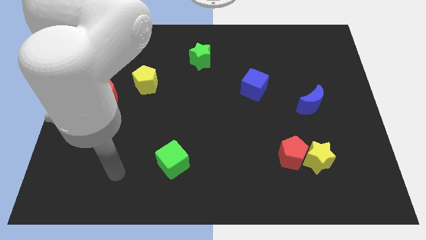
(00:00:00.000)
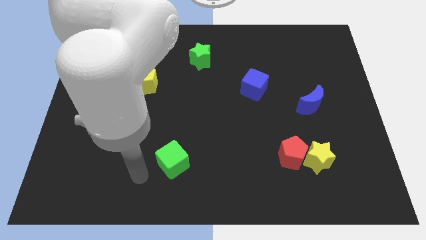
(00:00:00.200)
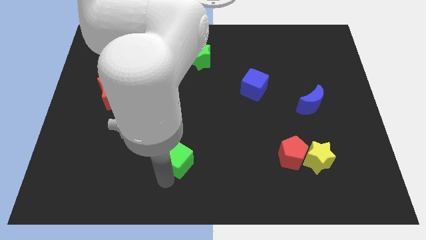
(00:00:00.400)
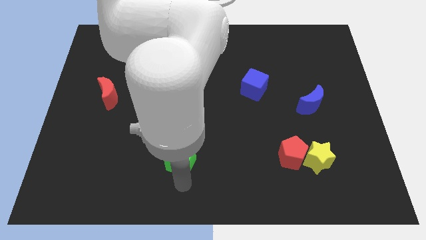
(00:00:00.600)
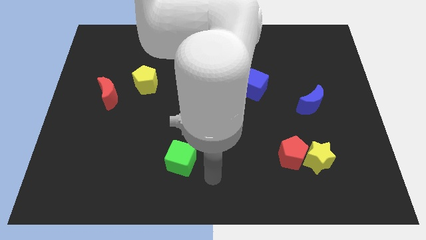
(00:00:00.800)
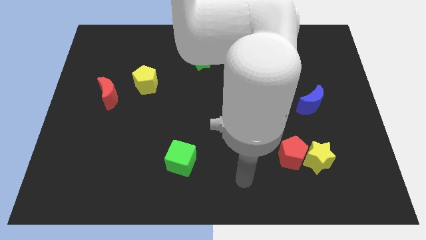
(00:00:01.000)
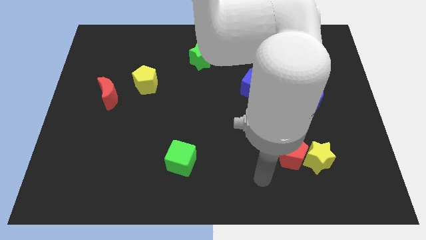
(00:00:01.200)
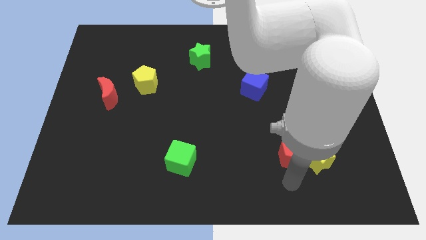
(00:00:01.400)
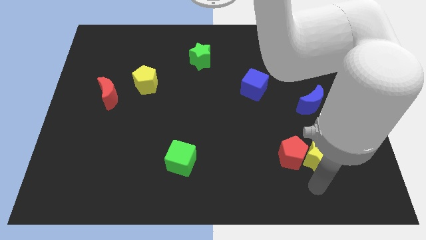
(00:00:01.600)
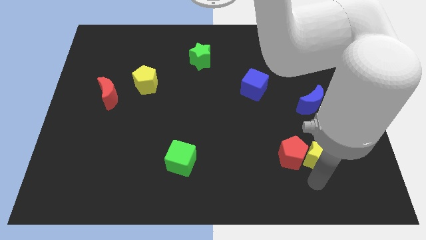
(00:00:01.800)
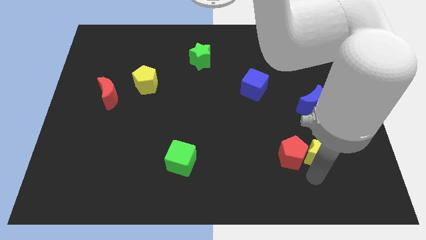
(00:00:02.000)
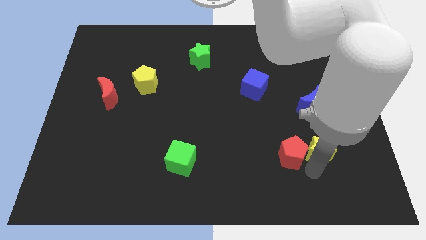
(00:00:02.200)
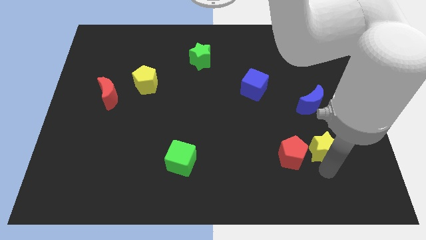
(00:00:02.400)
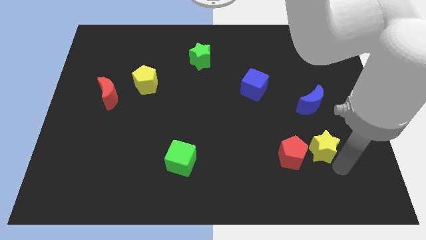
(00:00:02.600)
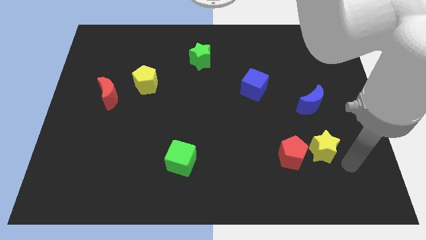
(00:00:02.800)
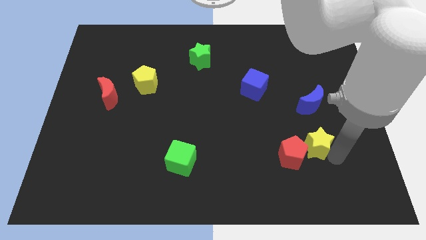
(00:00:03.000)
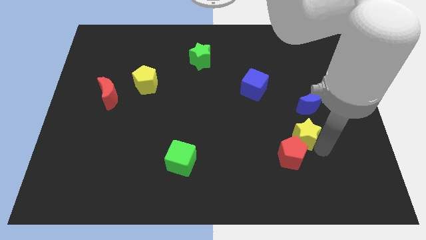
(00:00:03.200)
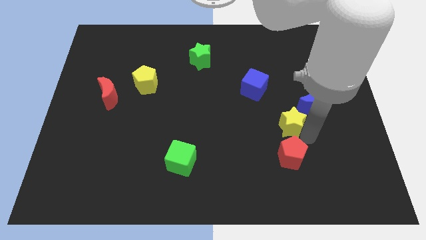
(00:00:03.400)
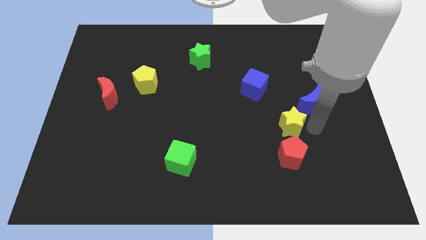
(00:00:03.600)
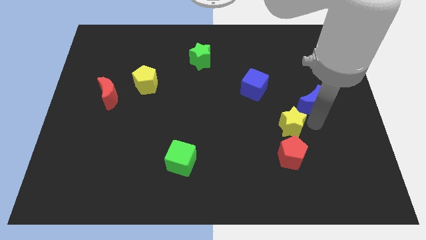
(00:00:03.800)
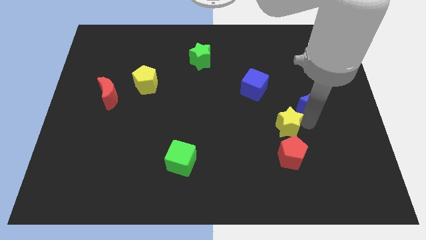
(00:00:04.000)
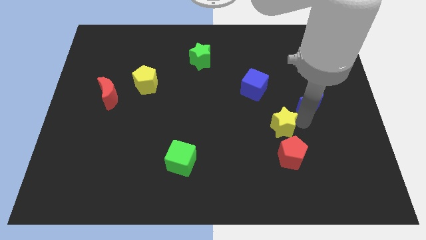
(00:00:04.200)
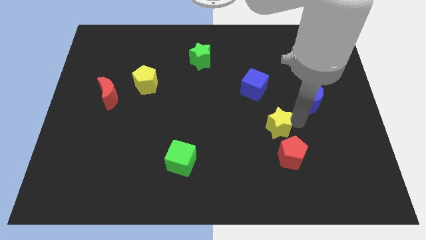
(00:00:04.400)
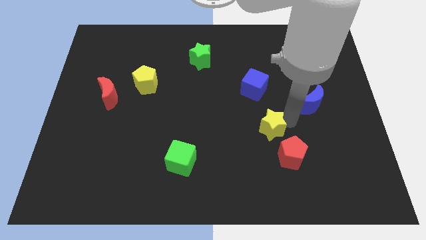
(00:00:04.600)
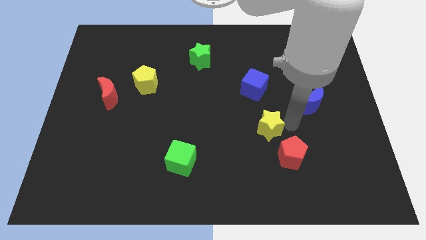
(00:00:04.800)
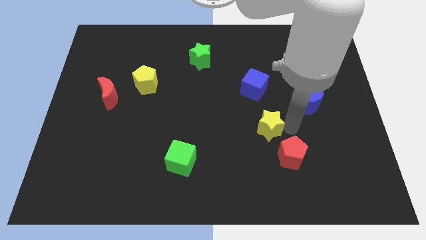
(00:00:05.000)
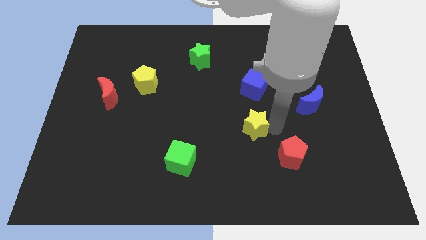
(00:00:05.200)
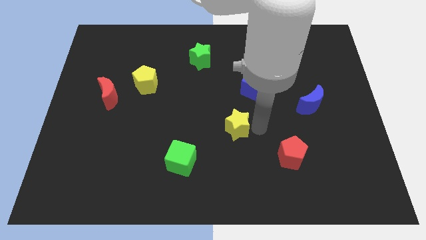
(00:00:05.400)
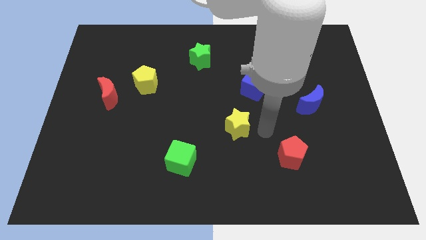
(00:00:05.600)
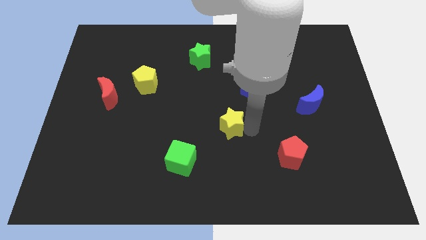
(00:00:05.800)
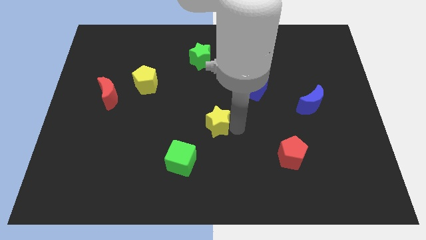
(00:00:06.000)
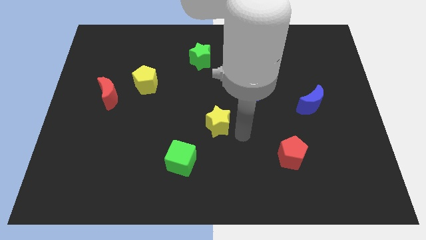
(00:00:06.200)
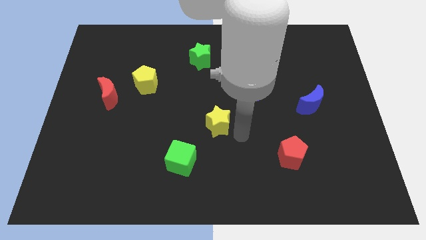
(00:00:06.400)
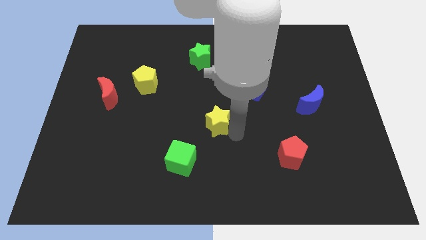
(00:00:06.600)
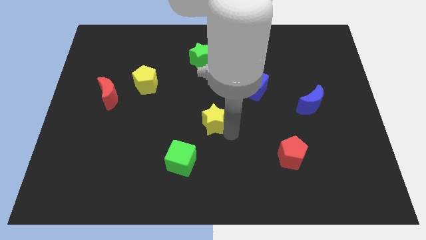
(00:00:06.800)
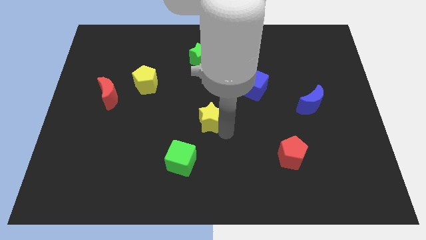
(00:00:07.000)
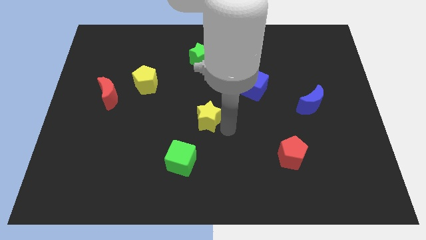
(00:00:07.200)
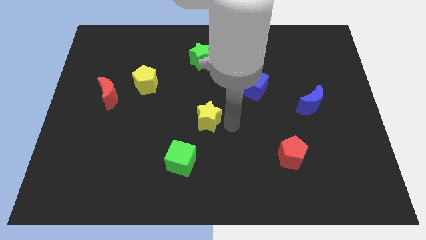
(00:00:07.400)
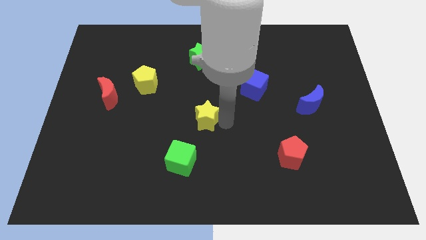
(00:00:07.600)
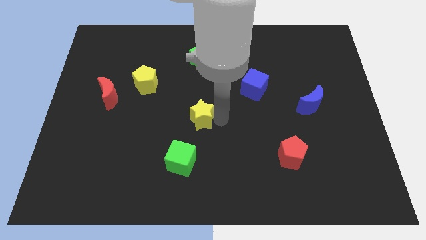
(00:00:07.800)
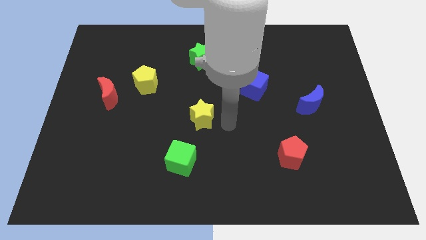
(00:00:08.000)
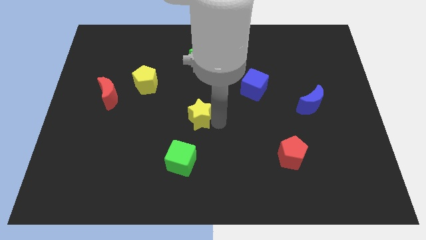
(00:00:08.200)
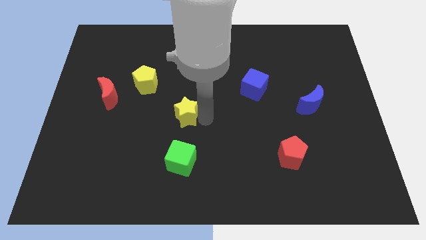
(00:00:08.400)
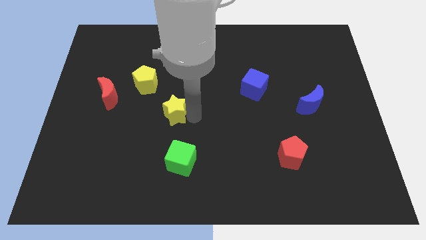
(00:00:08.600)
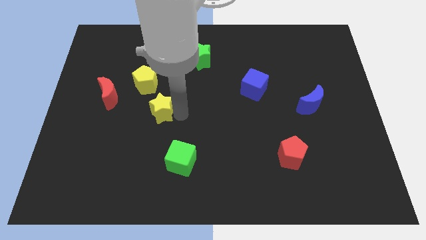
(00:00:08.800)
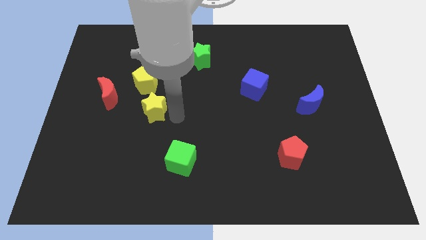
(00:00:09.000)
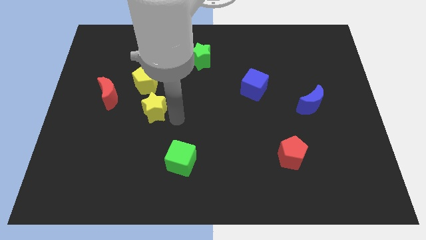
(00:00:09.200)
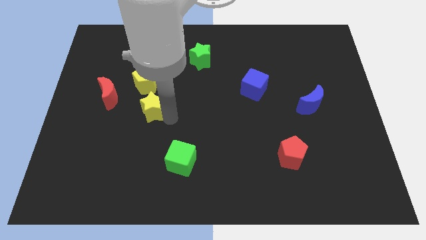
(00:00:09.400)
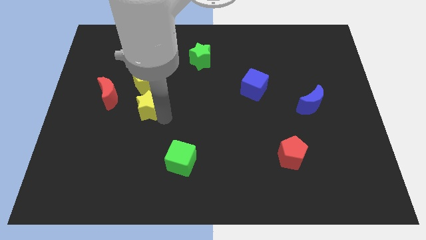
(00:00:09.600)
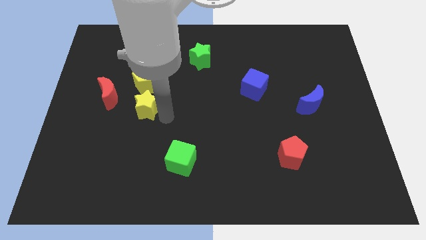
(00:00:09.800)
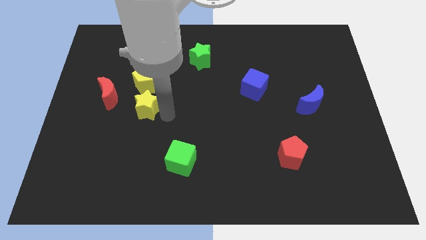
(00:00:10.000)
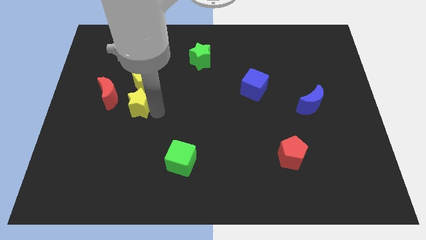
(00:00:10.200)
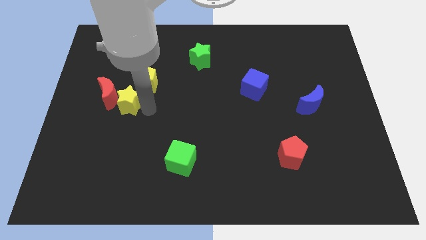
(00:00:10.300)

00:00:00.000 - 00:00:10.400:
move the yellow star next to the red moon

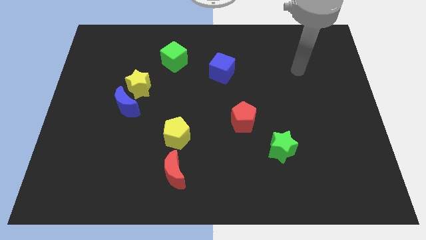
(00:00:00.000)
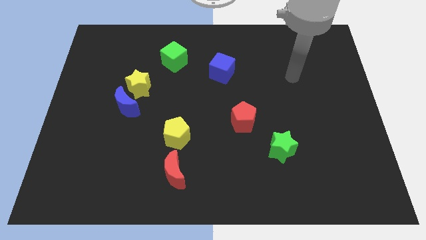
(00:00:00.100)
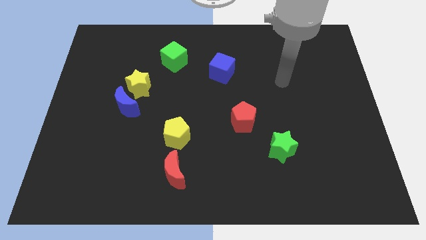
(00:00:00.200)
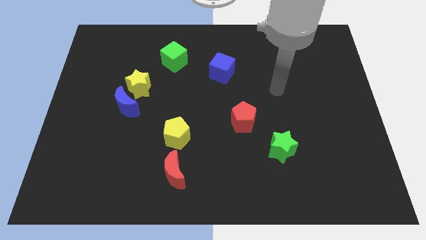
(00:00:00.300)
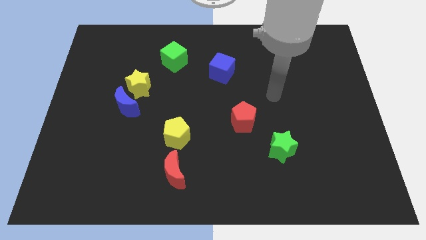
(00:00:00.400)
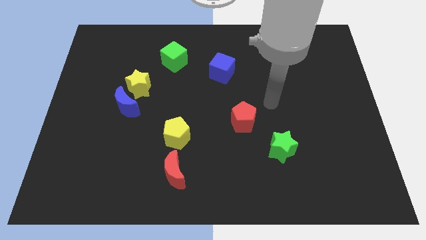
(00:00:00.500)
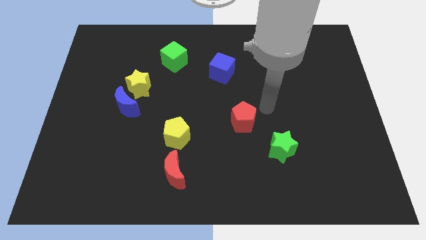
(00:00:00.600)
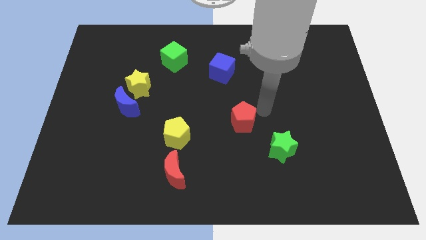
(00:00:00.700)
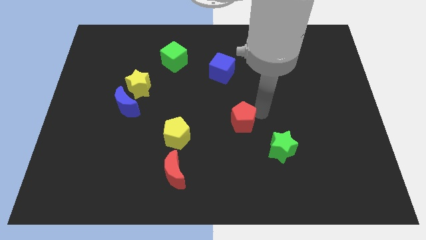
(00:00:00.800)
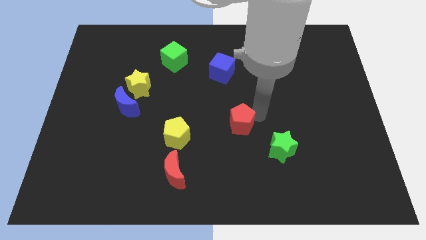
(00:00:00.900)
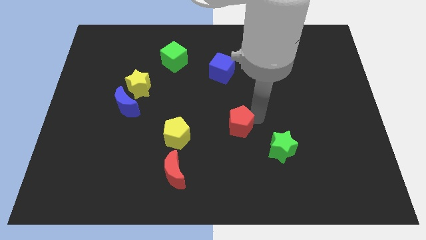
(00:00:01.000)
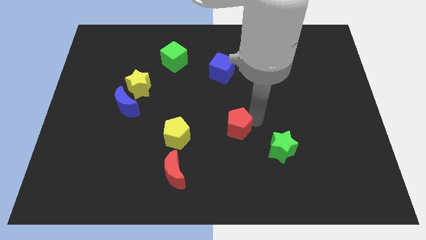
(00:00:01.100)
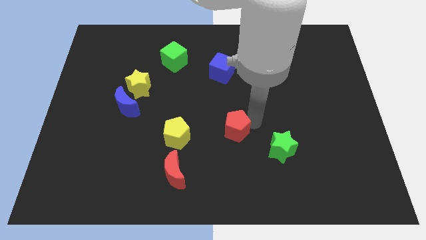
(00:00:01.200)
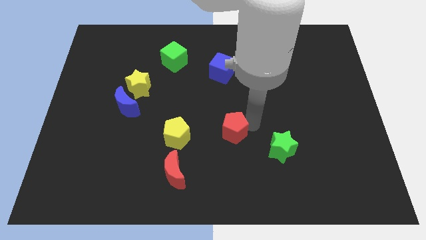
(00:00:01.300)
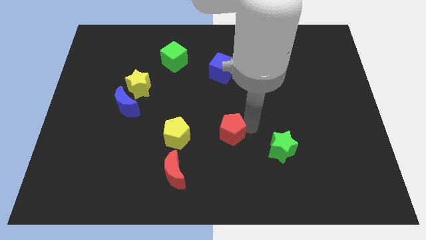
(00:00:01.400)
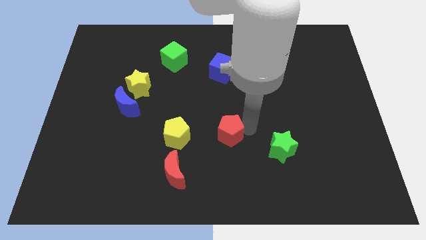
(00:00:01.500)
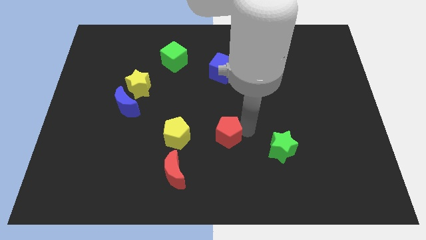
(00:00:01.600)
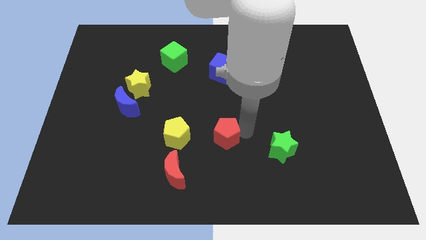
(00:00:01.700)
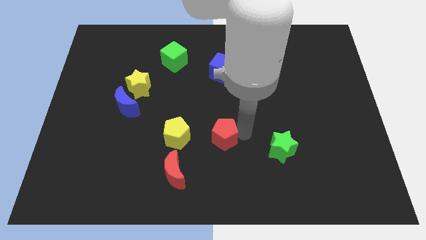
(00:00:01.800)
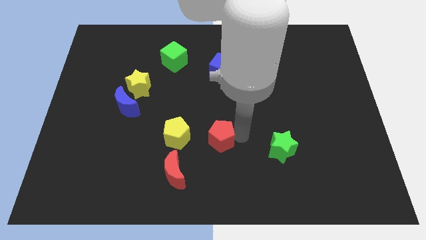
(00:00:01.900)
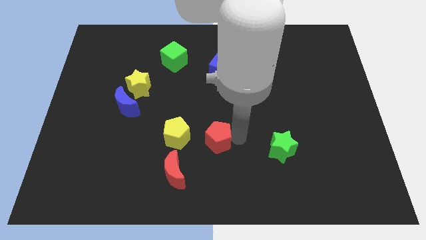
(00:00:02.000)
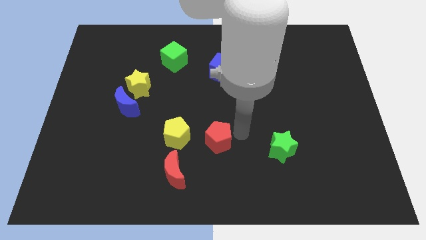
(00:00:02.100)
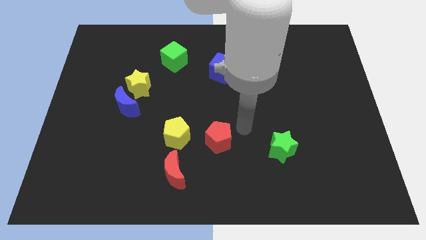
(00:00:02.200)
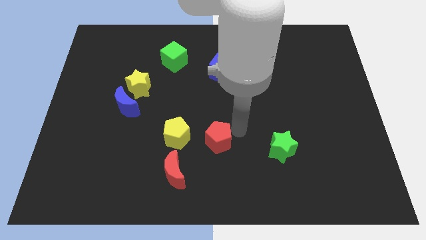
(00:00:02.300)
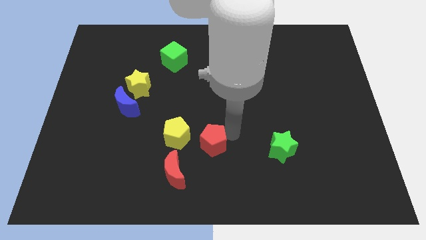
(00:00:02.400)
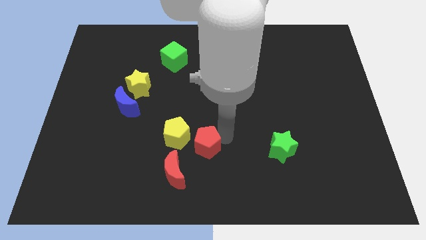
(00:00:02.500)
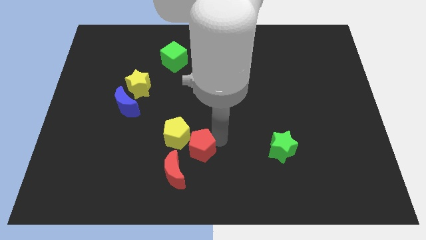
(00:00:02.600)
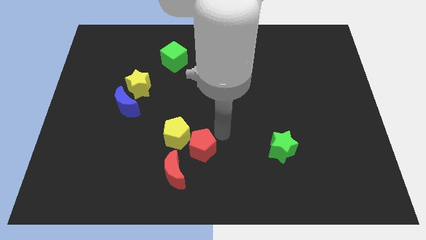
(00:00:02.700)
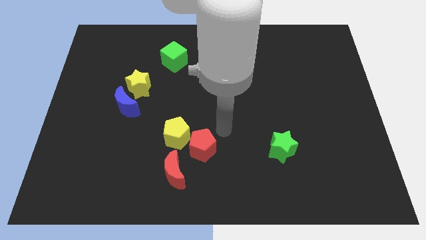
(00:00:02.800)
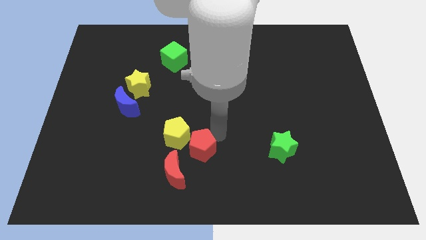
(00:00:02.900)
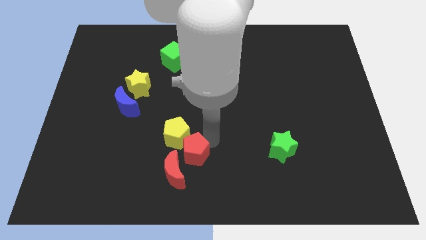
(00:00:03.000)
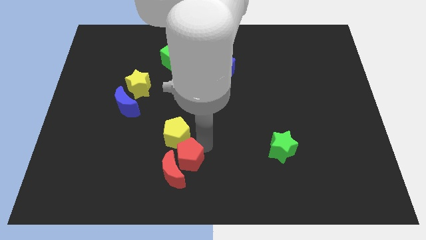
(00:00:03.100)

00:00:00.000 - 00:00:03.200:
move the red pentagon towards the red moon
